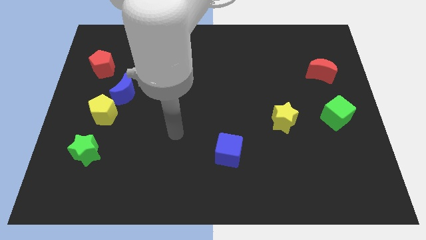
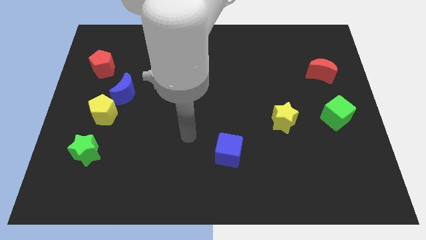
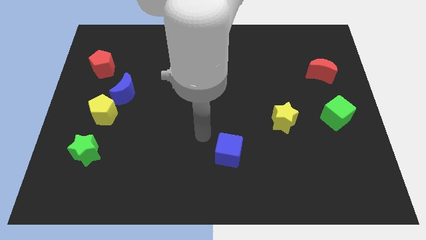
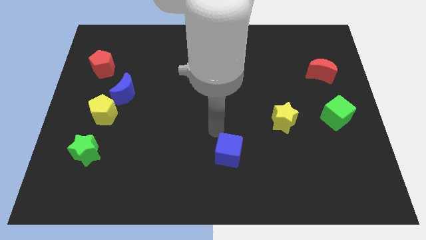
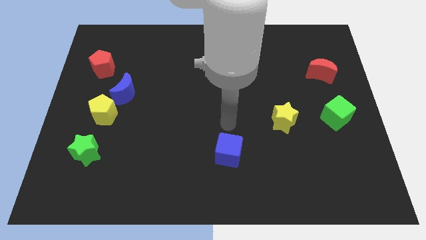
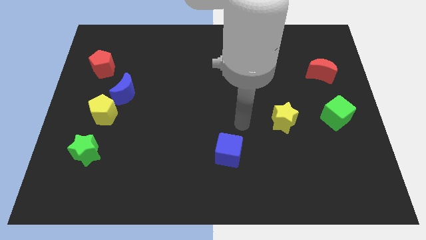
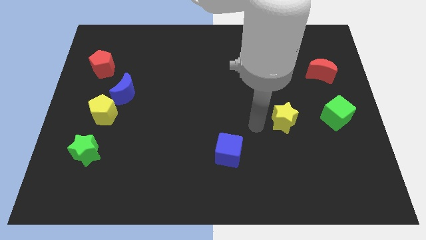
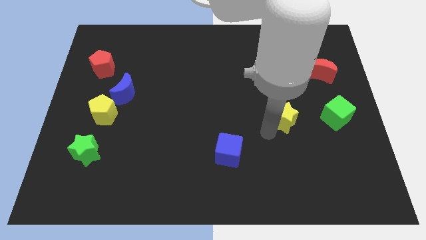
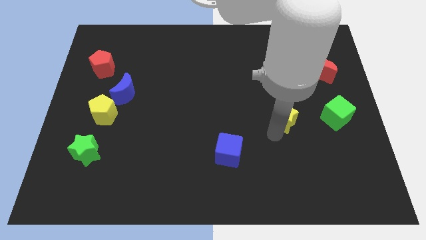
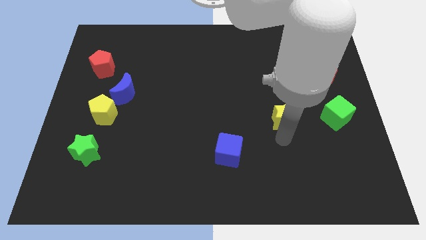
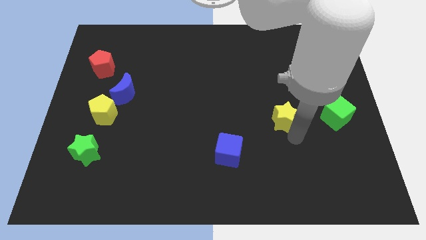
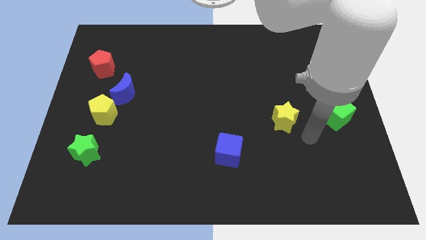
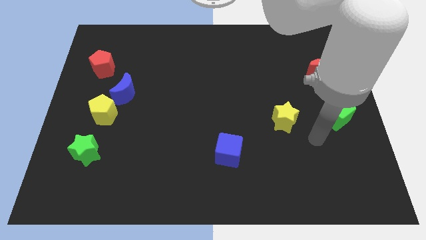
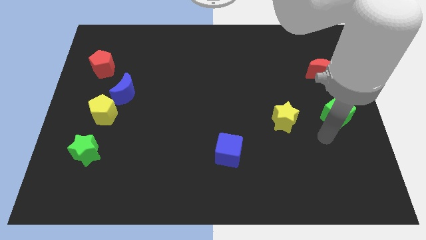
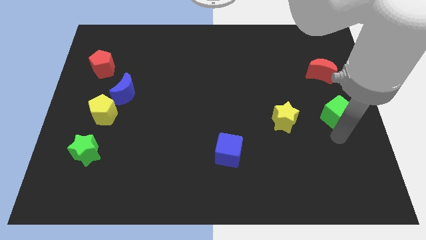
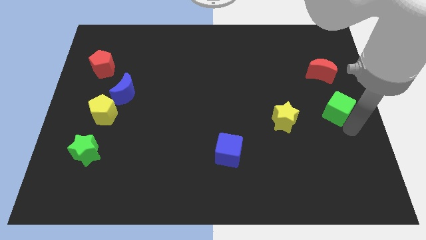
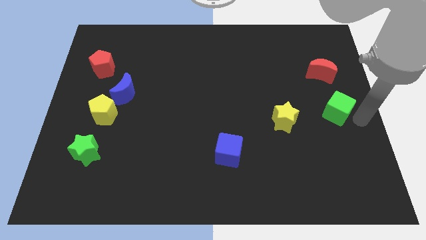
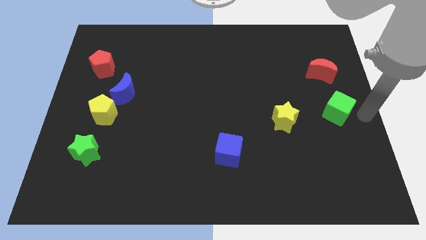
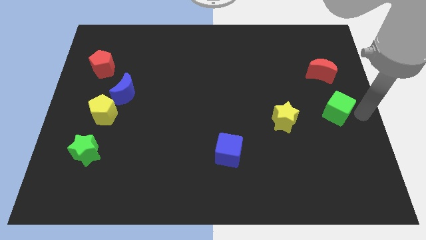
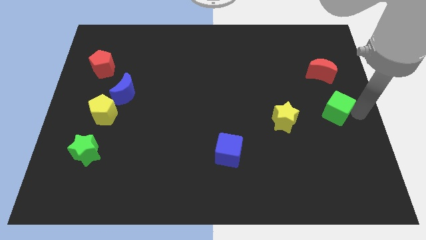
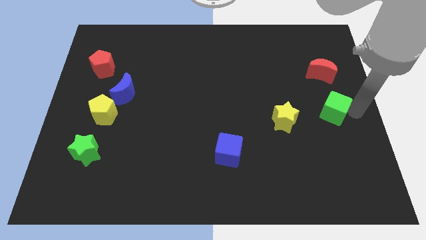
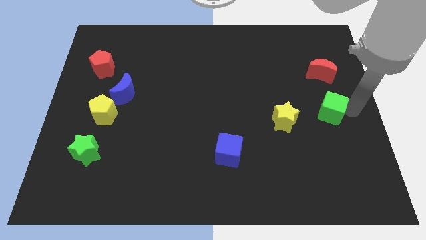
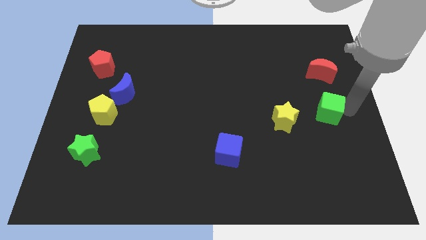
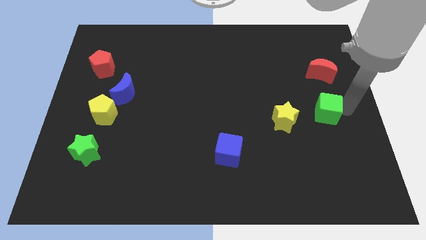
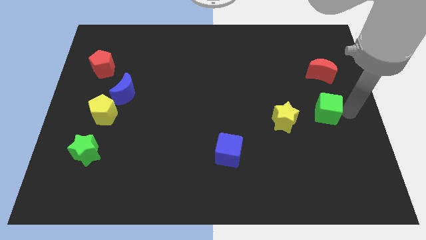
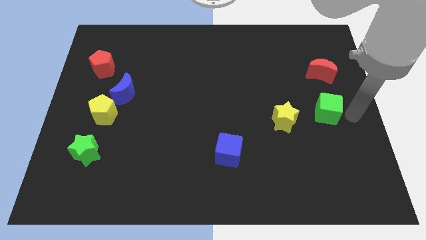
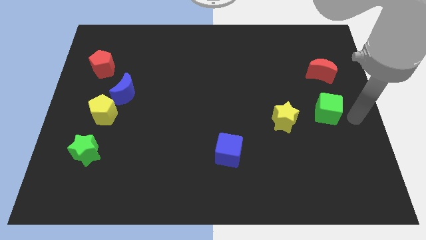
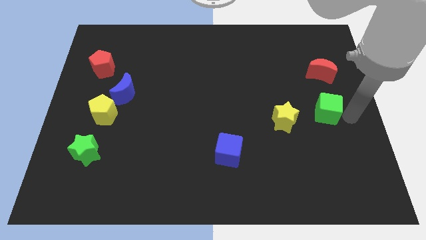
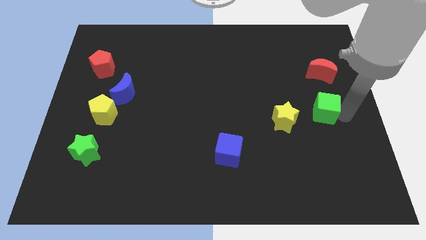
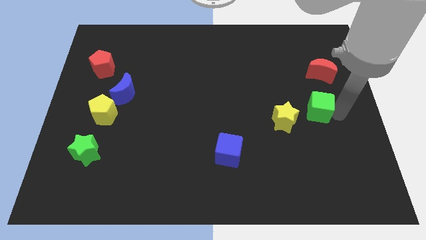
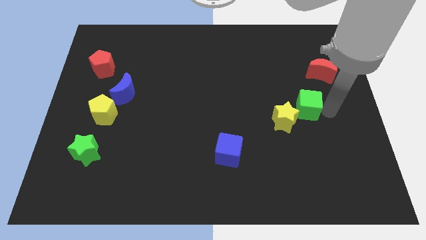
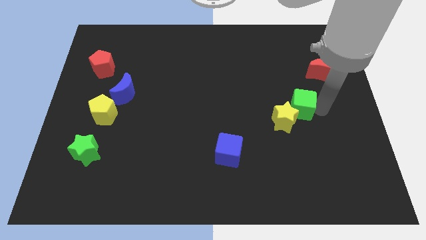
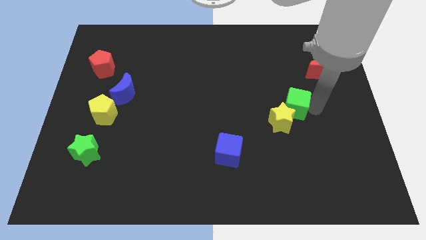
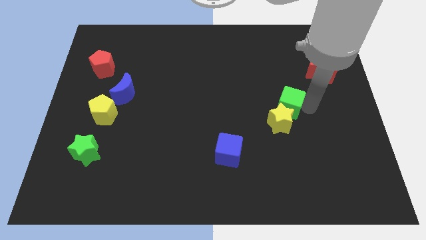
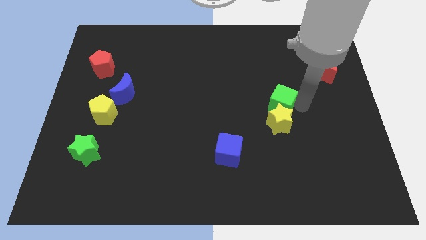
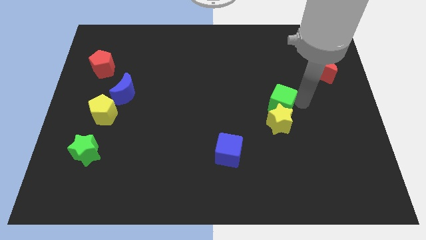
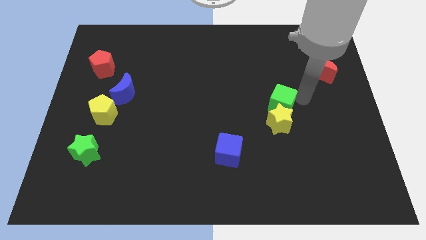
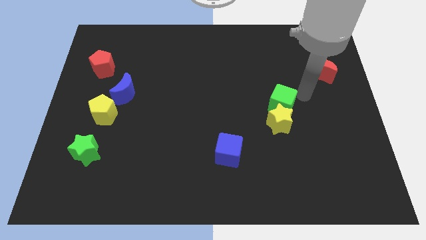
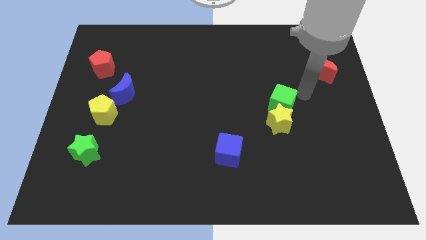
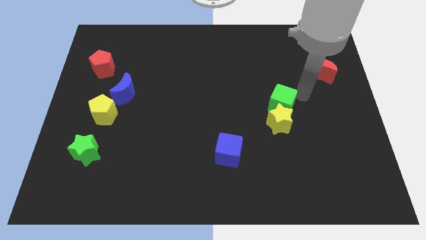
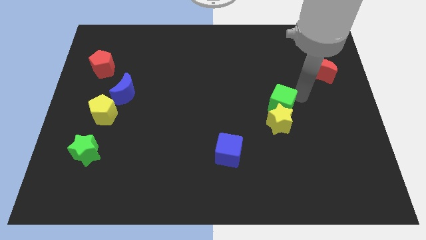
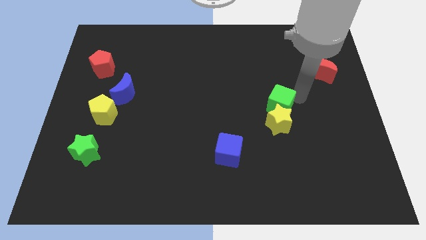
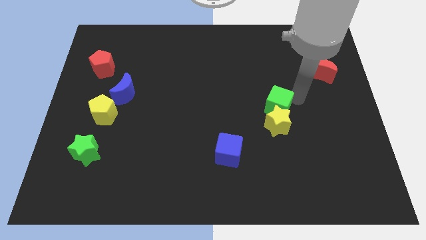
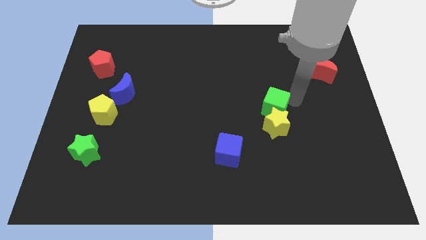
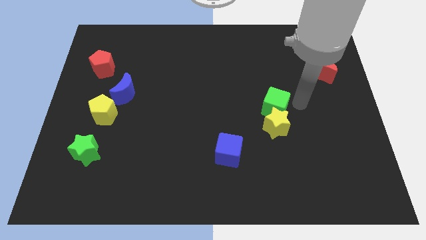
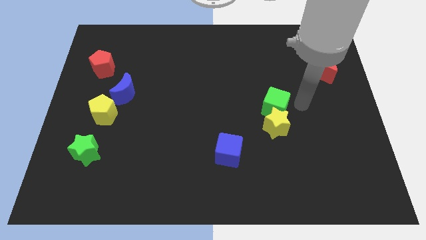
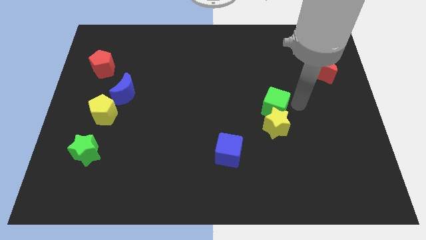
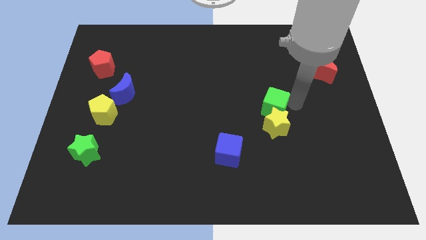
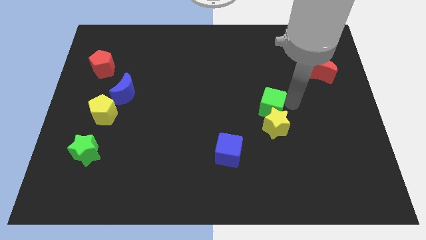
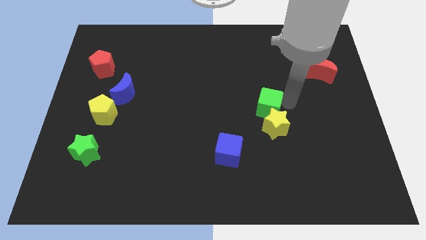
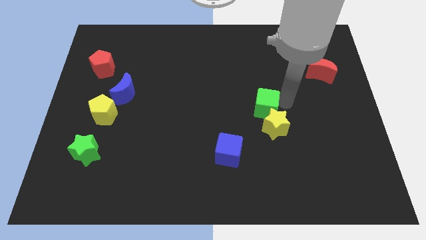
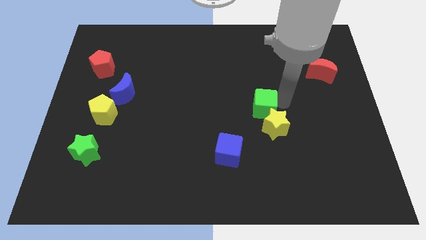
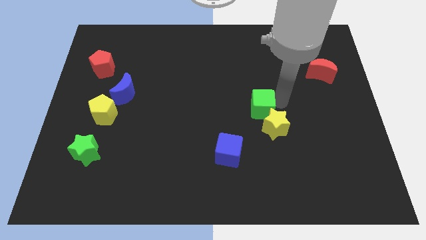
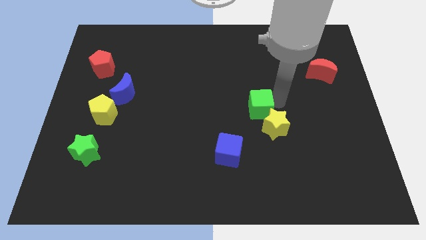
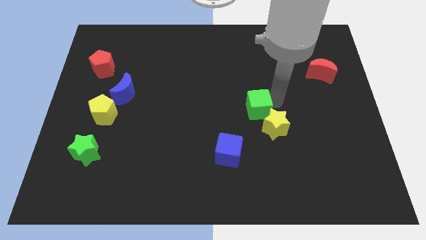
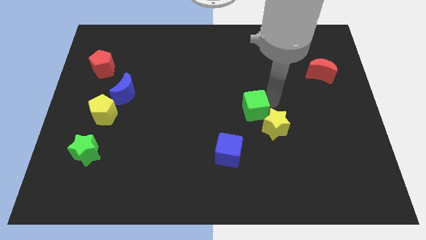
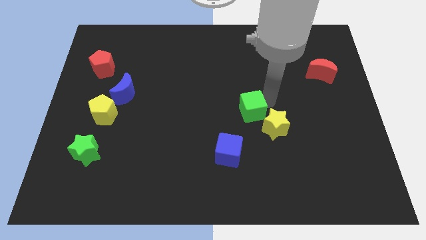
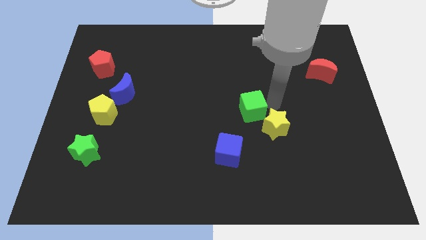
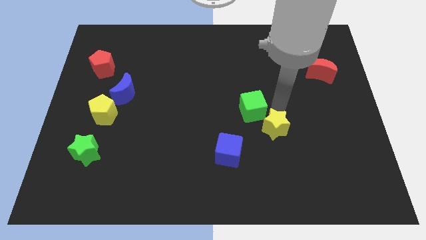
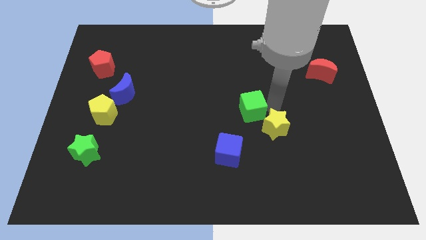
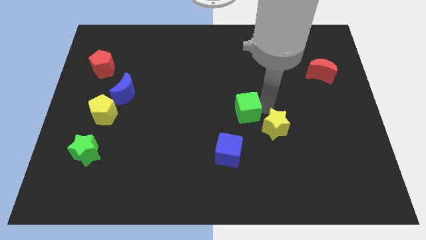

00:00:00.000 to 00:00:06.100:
move the green cube to the left

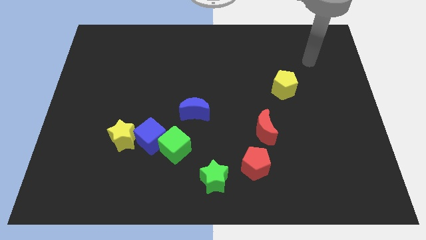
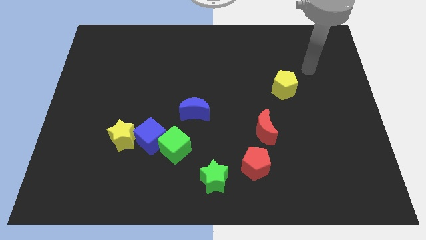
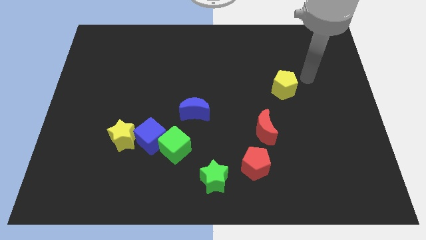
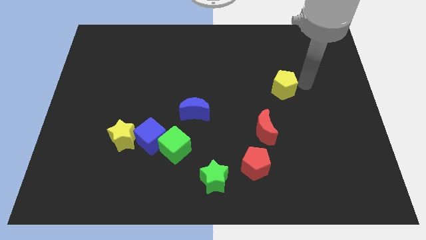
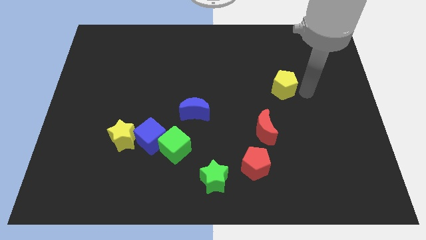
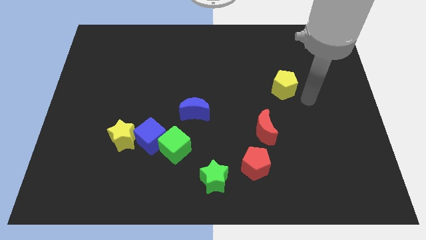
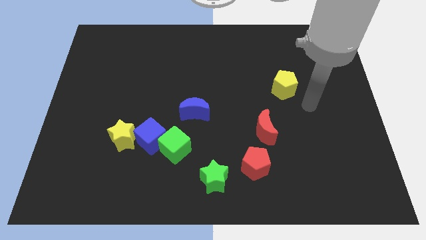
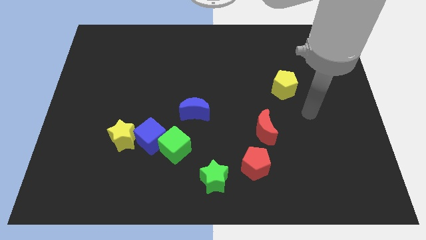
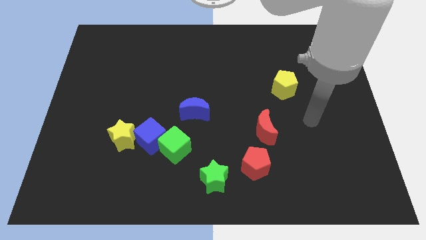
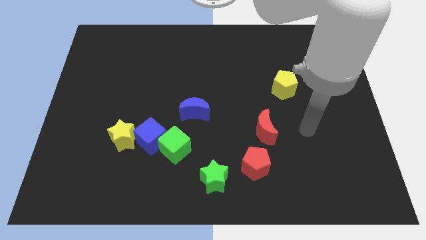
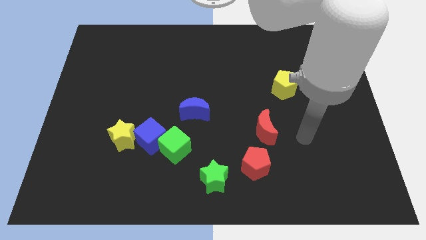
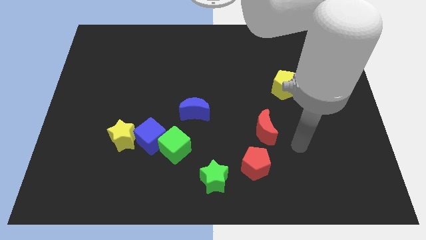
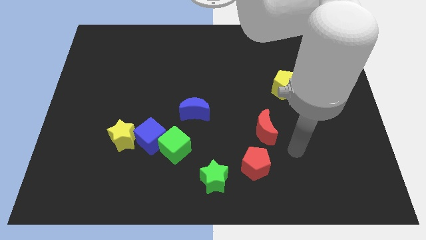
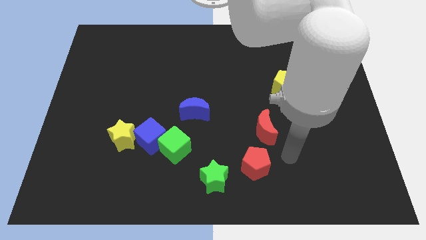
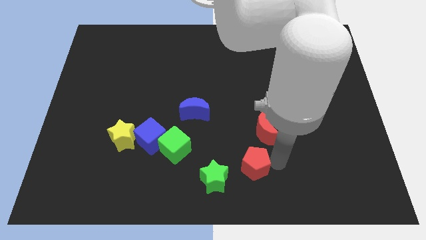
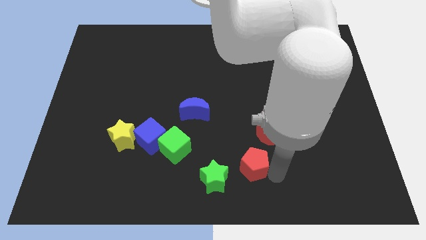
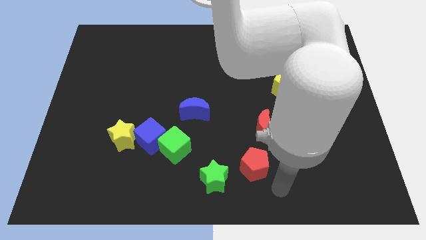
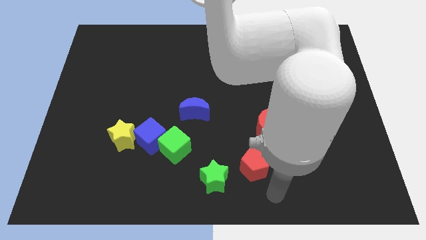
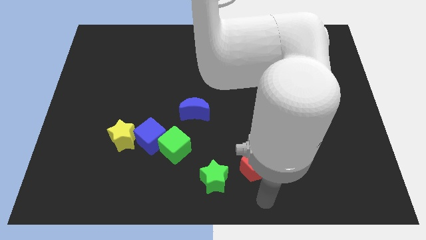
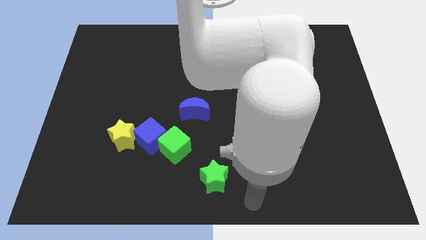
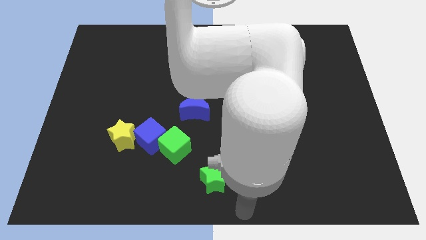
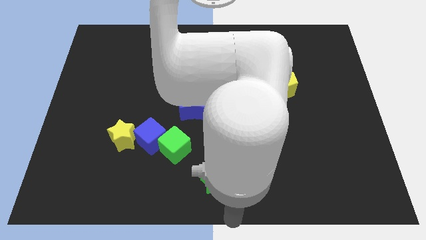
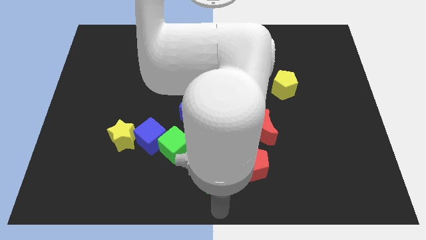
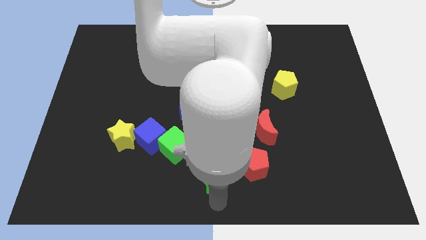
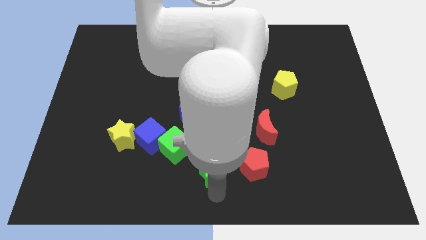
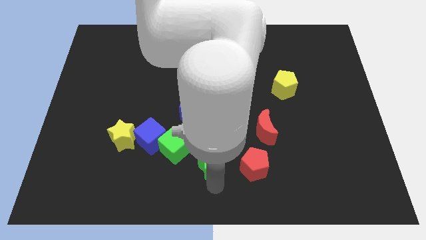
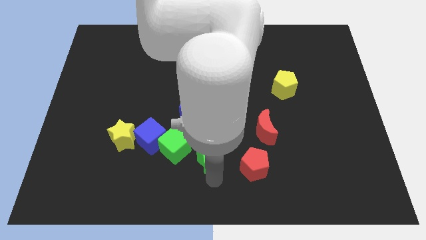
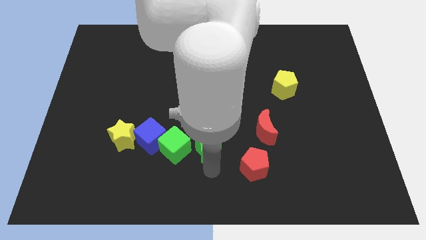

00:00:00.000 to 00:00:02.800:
slightly slide the green star upwards
